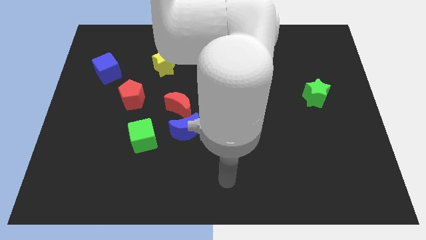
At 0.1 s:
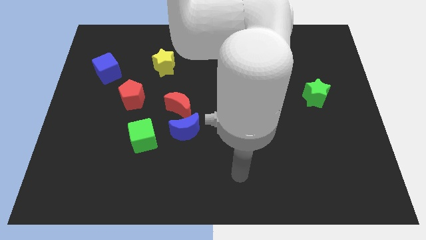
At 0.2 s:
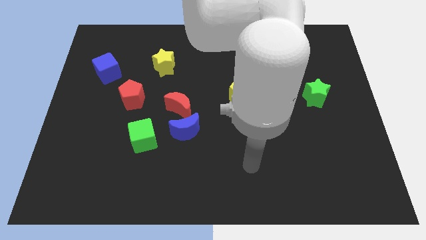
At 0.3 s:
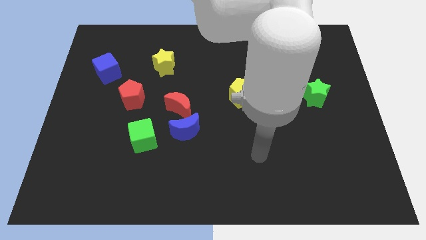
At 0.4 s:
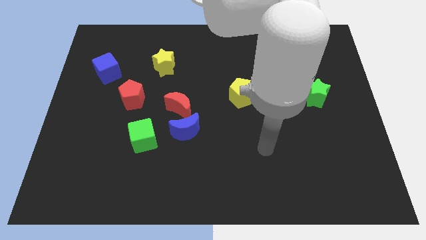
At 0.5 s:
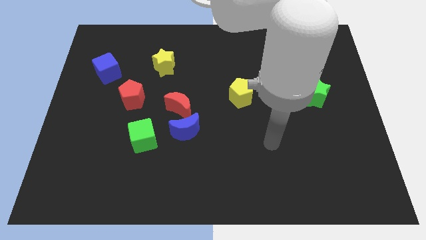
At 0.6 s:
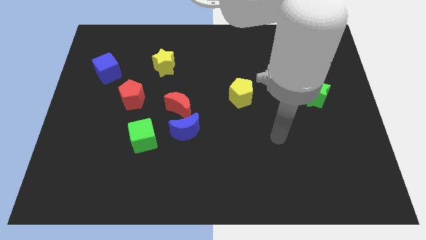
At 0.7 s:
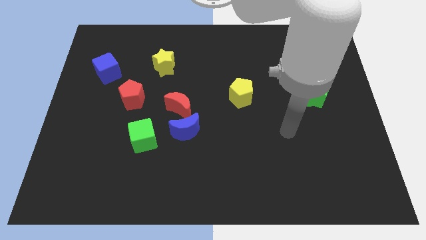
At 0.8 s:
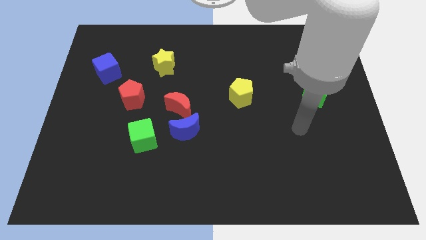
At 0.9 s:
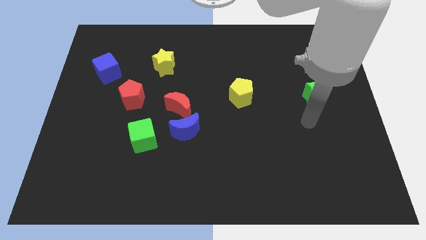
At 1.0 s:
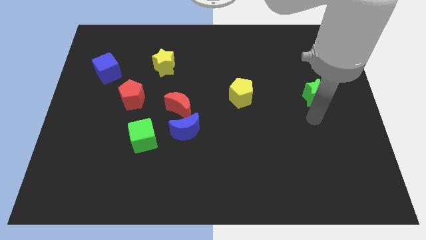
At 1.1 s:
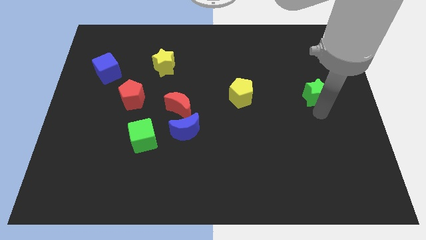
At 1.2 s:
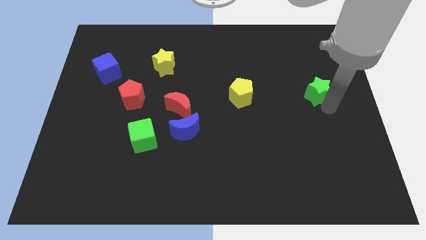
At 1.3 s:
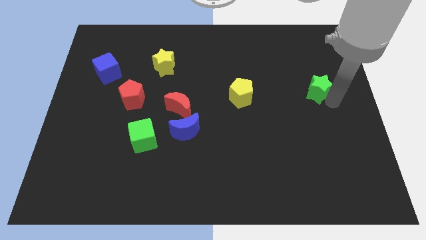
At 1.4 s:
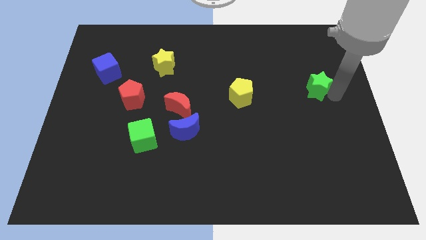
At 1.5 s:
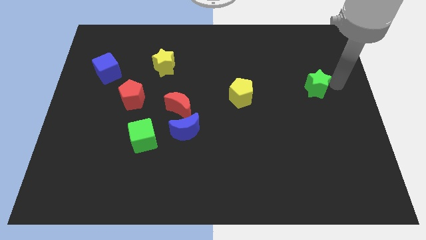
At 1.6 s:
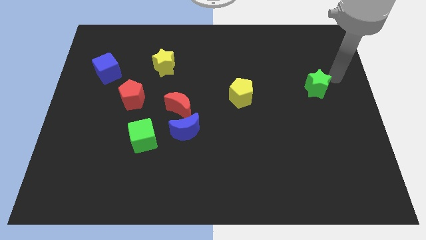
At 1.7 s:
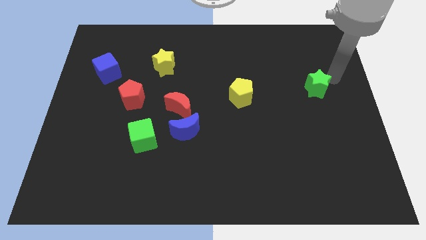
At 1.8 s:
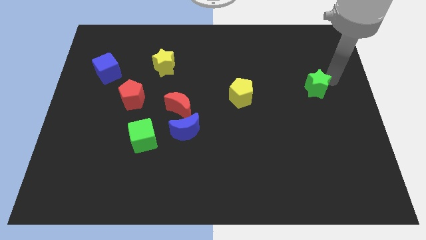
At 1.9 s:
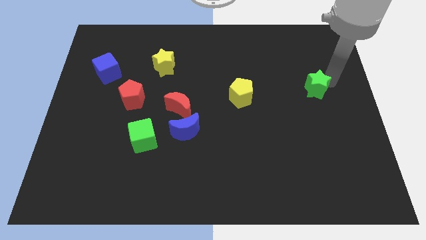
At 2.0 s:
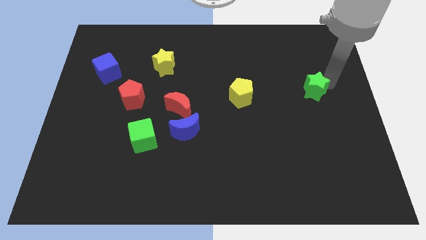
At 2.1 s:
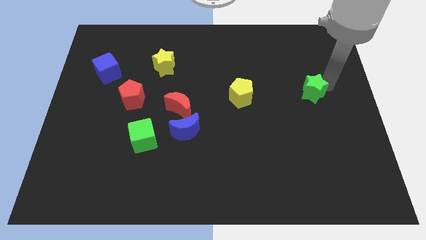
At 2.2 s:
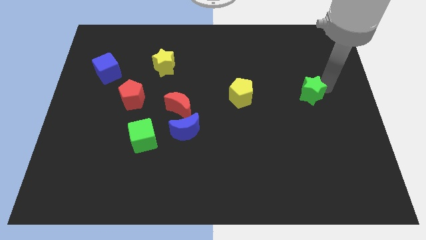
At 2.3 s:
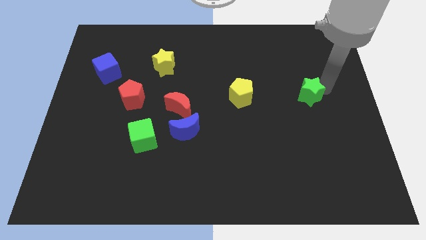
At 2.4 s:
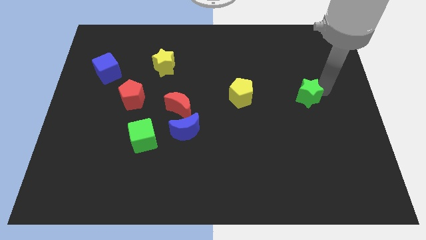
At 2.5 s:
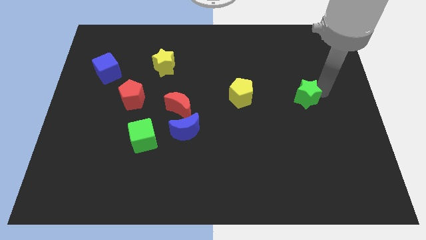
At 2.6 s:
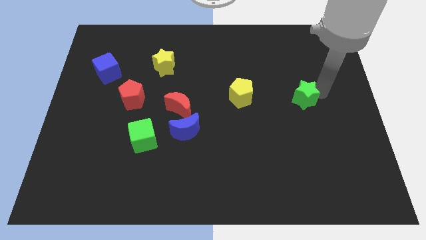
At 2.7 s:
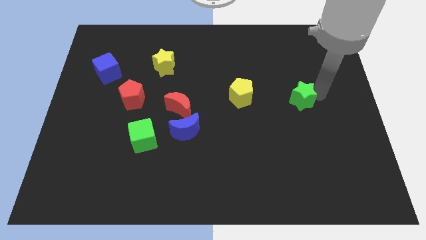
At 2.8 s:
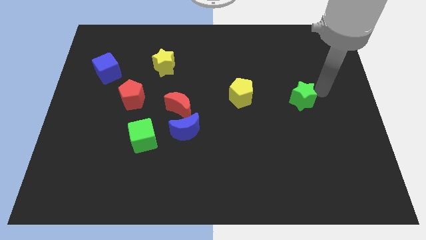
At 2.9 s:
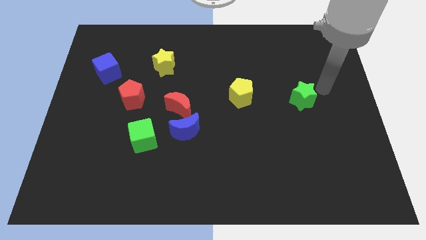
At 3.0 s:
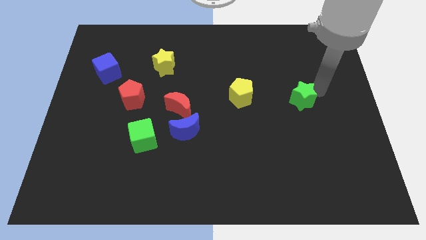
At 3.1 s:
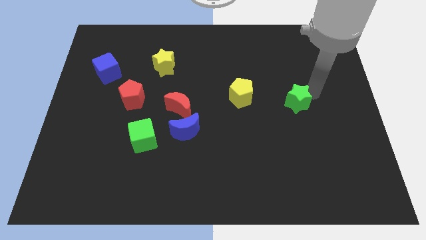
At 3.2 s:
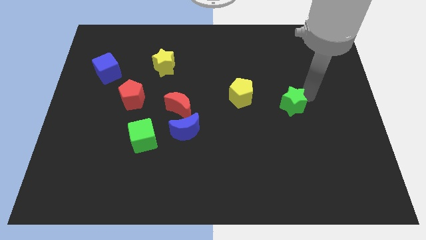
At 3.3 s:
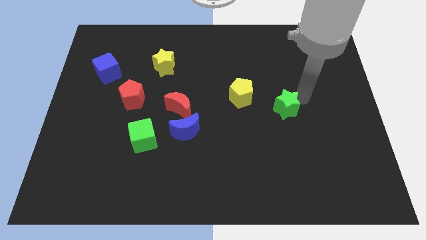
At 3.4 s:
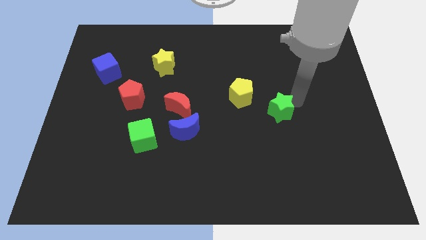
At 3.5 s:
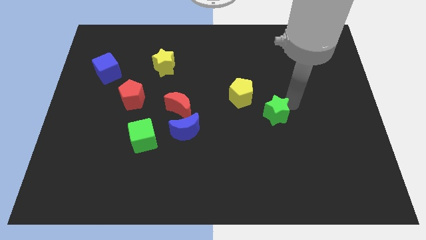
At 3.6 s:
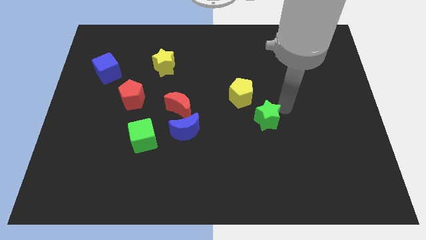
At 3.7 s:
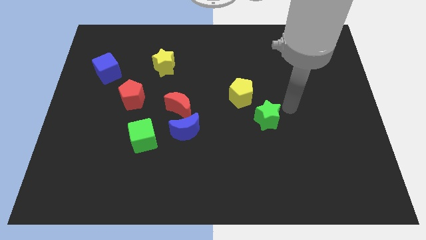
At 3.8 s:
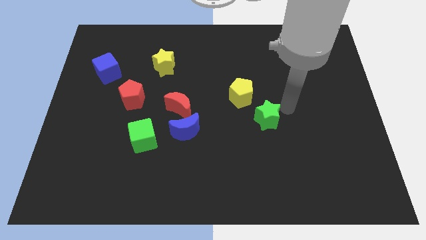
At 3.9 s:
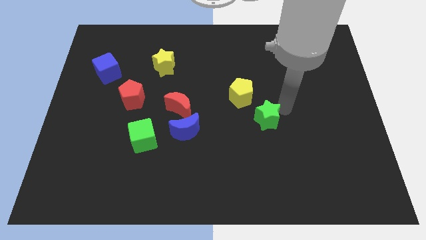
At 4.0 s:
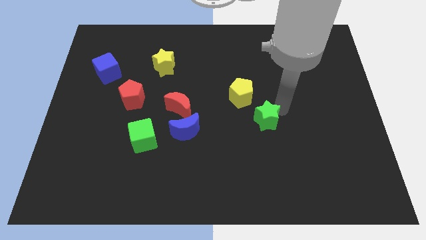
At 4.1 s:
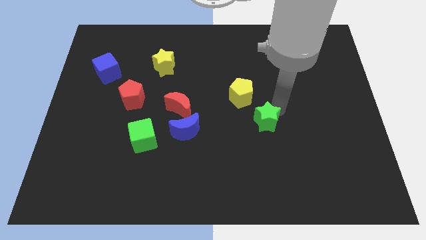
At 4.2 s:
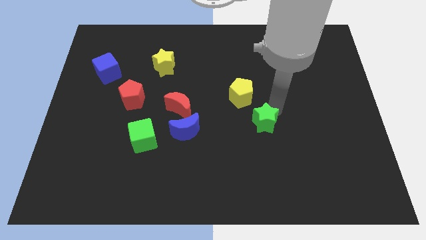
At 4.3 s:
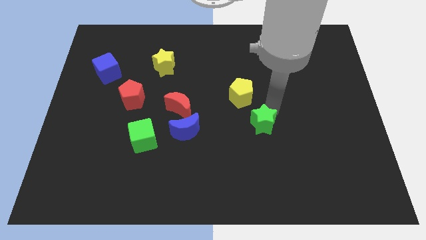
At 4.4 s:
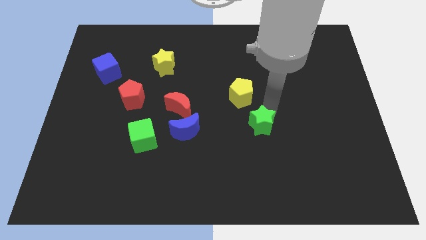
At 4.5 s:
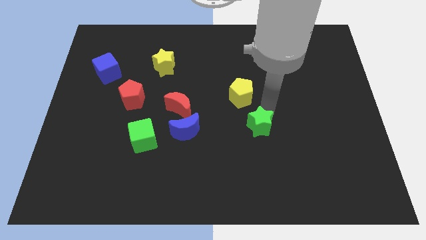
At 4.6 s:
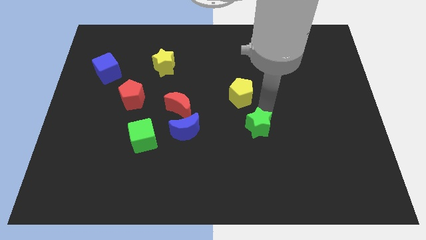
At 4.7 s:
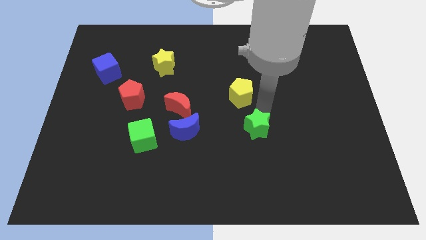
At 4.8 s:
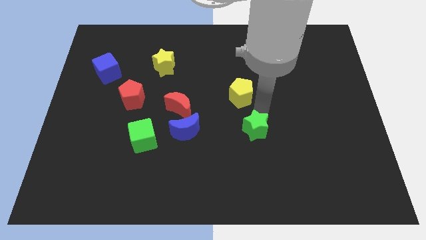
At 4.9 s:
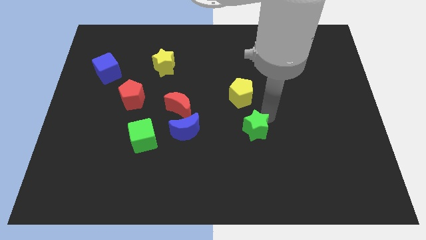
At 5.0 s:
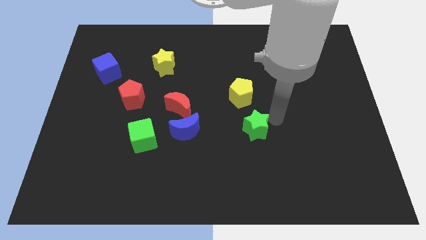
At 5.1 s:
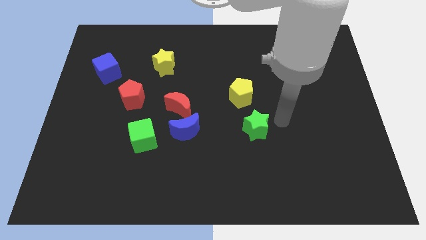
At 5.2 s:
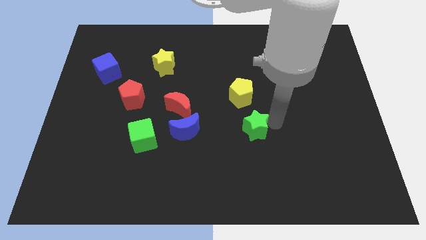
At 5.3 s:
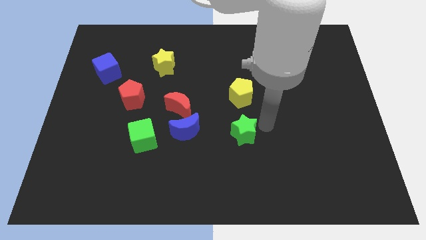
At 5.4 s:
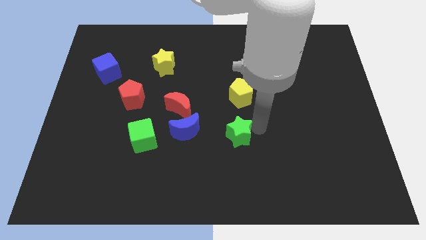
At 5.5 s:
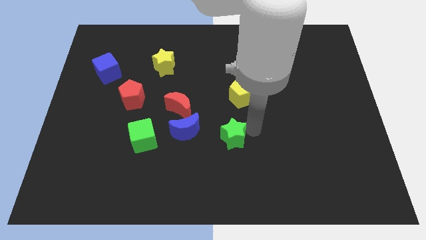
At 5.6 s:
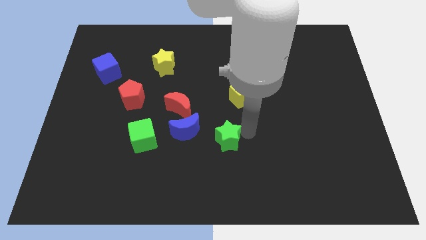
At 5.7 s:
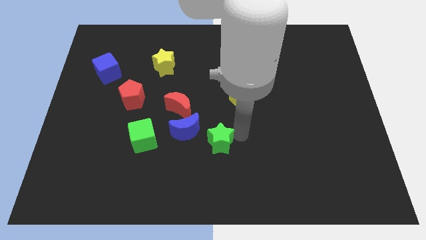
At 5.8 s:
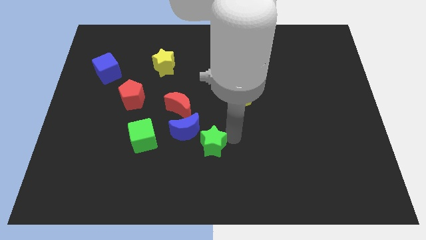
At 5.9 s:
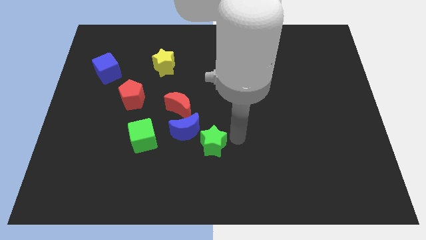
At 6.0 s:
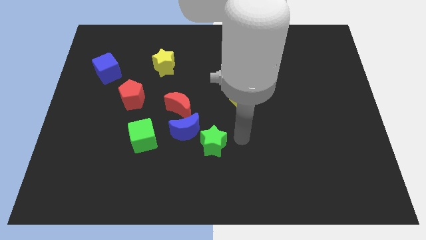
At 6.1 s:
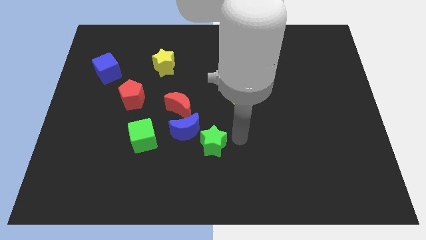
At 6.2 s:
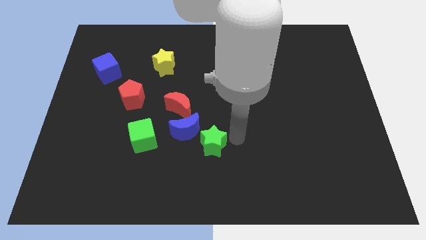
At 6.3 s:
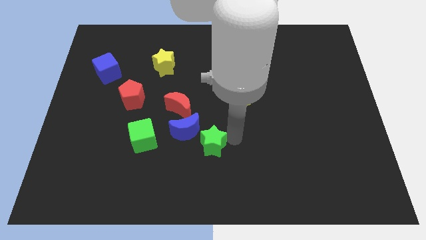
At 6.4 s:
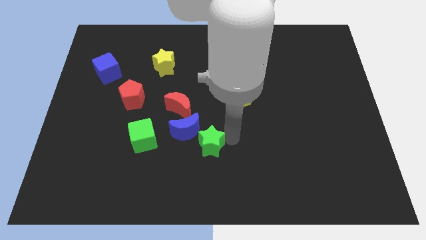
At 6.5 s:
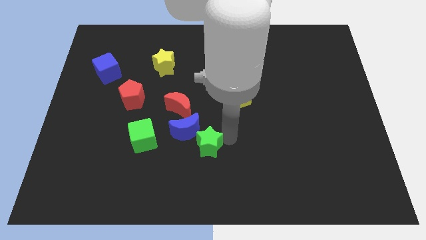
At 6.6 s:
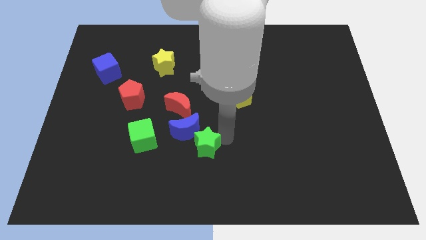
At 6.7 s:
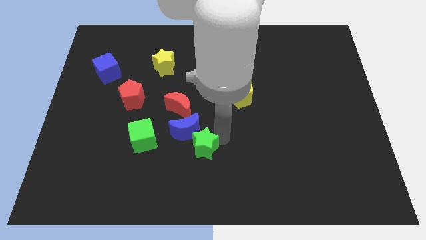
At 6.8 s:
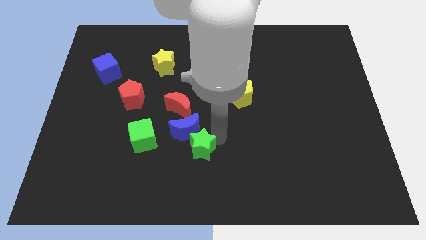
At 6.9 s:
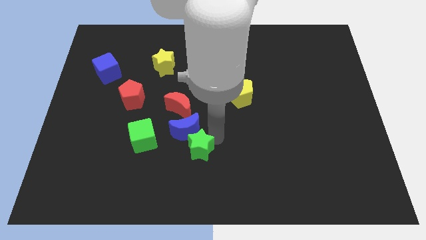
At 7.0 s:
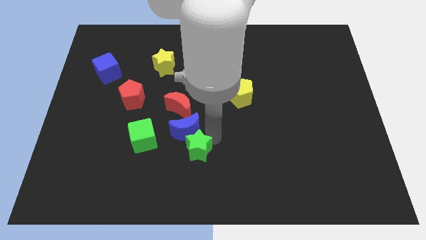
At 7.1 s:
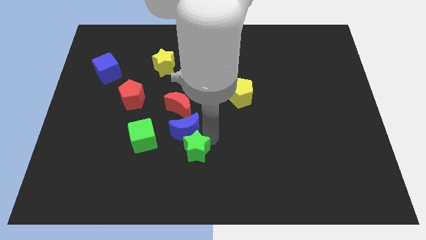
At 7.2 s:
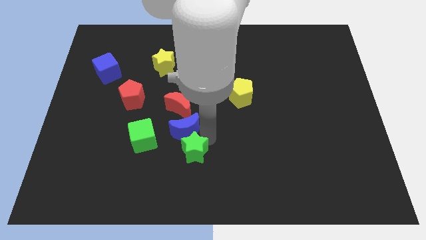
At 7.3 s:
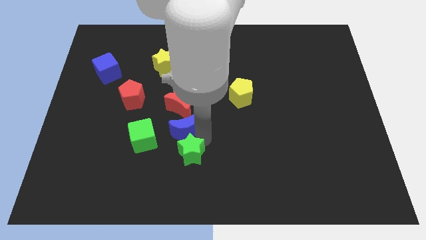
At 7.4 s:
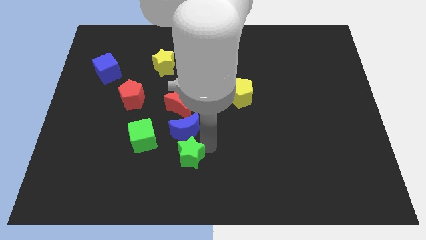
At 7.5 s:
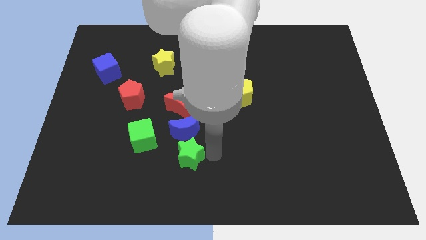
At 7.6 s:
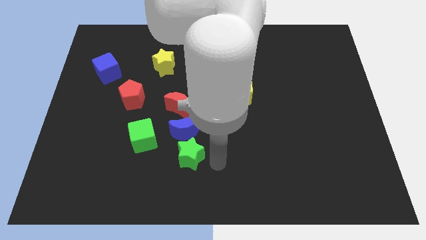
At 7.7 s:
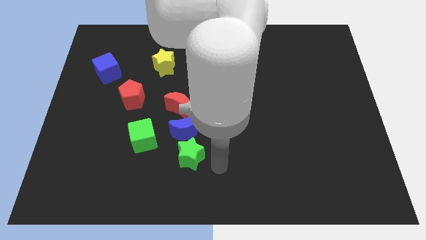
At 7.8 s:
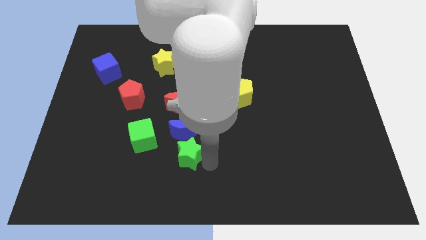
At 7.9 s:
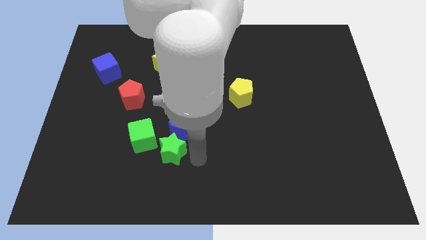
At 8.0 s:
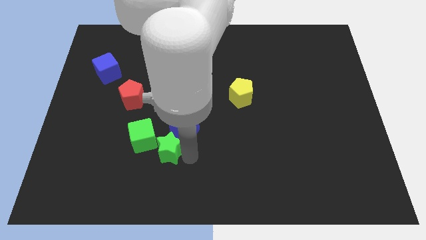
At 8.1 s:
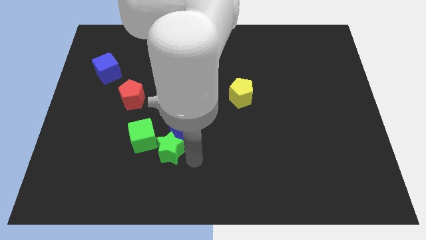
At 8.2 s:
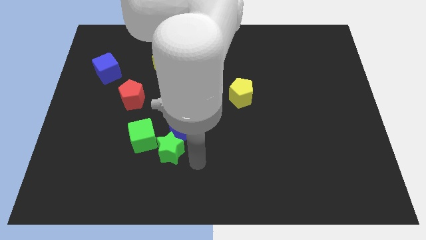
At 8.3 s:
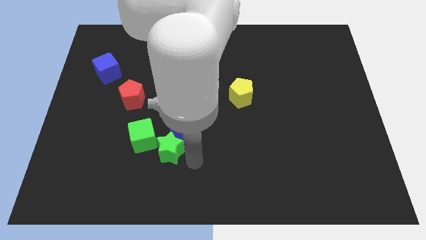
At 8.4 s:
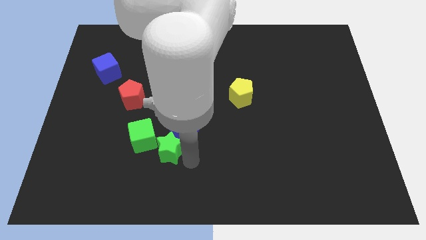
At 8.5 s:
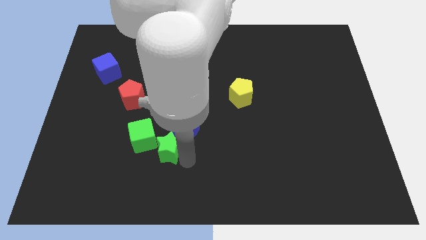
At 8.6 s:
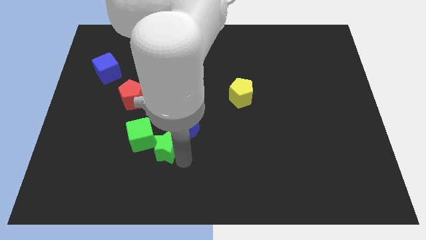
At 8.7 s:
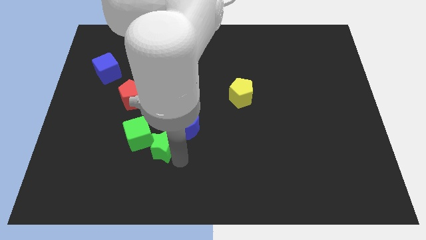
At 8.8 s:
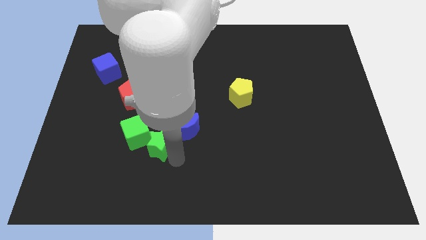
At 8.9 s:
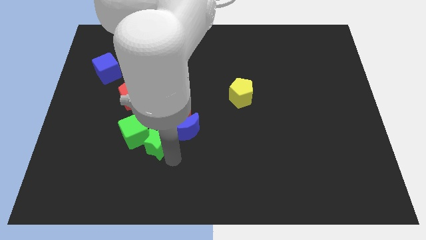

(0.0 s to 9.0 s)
move the green star towards the green cube
